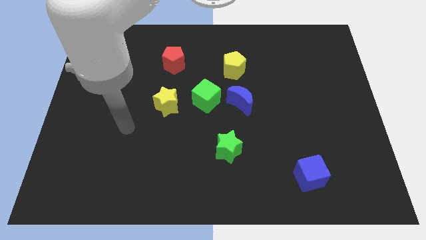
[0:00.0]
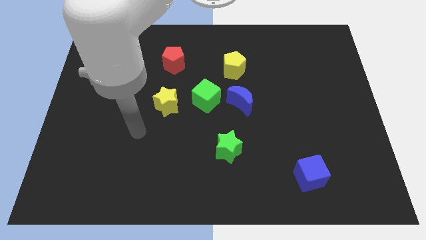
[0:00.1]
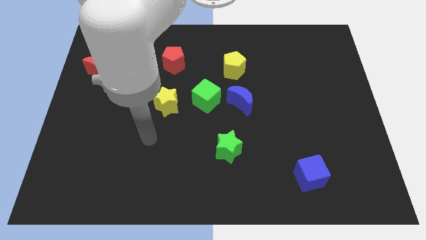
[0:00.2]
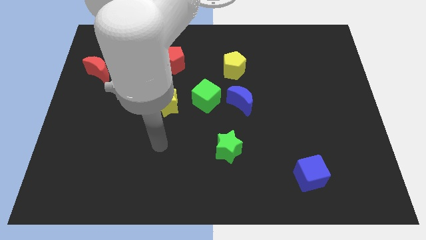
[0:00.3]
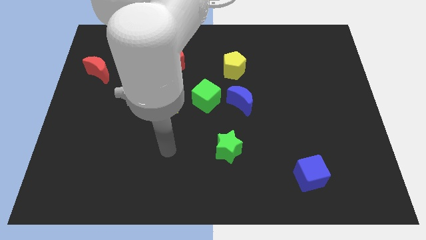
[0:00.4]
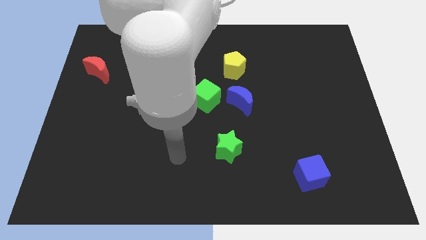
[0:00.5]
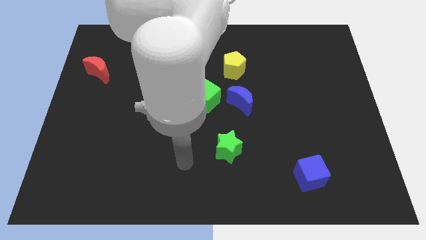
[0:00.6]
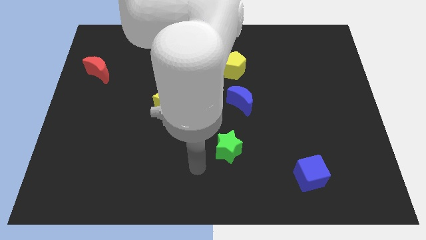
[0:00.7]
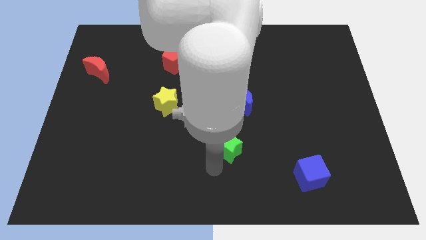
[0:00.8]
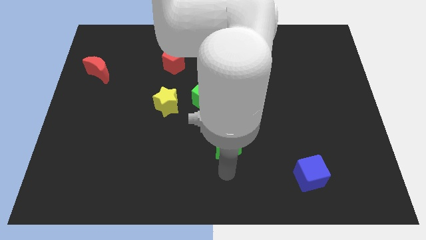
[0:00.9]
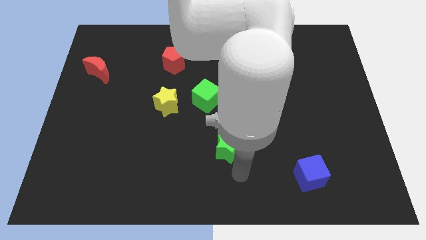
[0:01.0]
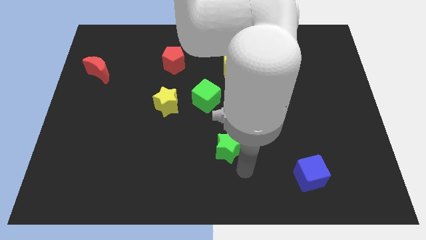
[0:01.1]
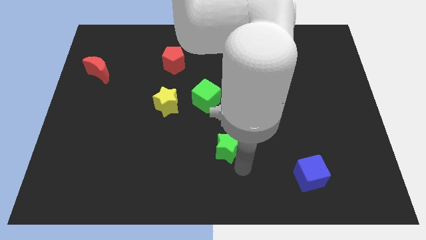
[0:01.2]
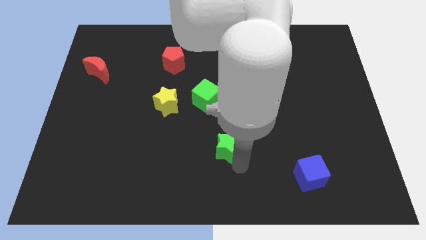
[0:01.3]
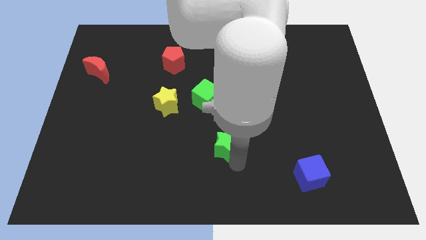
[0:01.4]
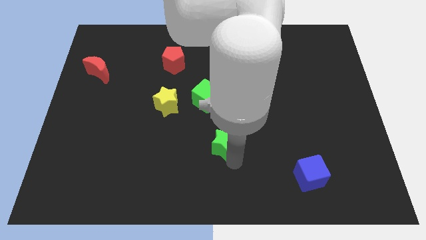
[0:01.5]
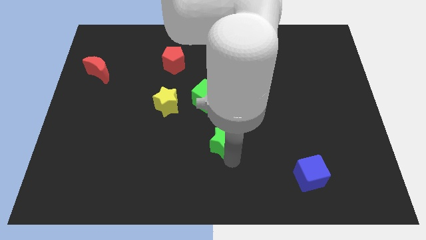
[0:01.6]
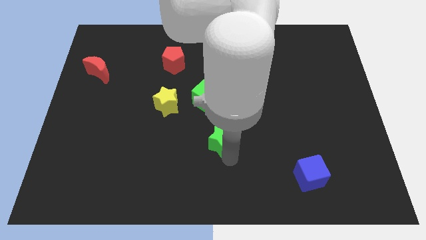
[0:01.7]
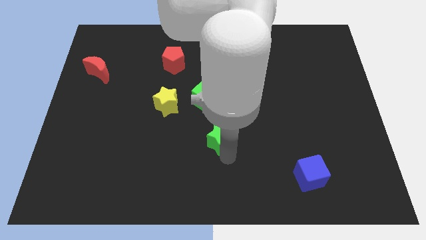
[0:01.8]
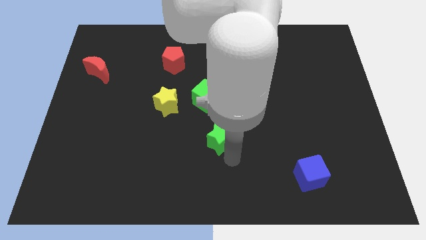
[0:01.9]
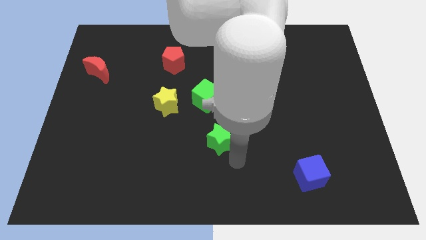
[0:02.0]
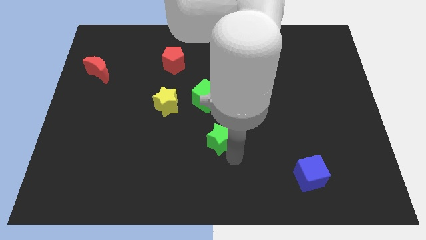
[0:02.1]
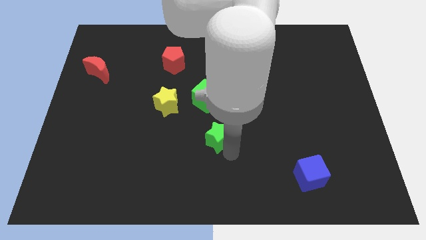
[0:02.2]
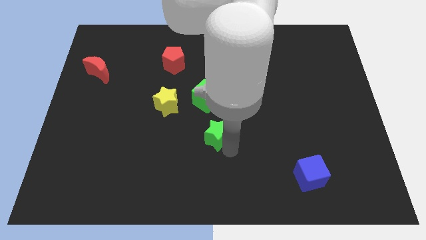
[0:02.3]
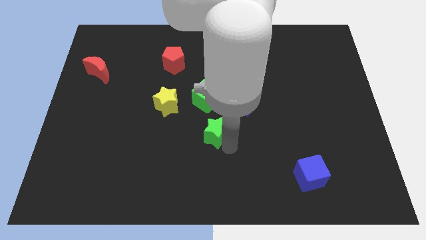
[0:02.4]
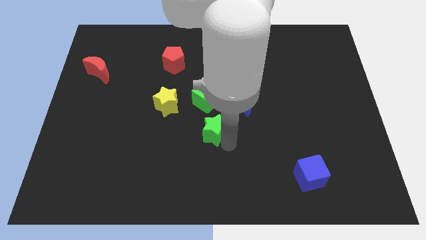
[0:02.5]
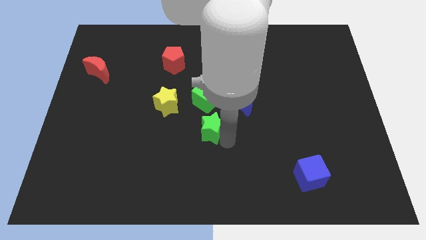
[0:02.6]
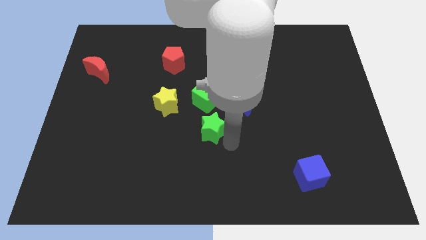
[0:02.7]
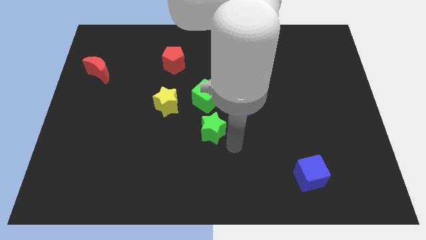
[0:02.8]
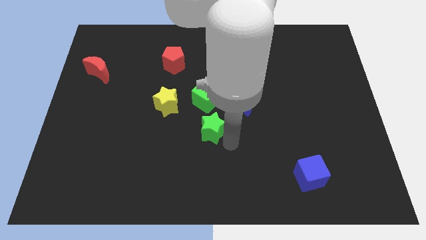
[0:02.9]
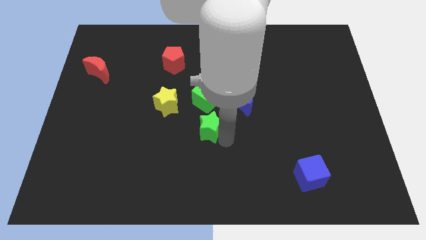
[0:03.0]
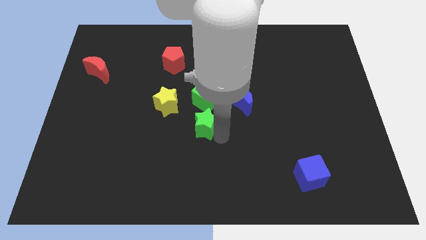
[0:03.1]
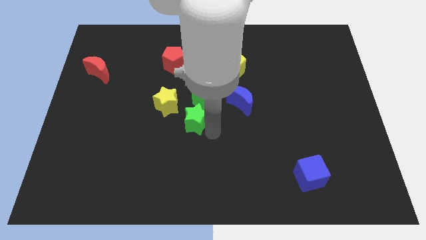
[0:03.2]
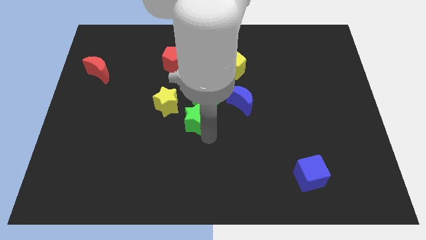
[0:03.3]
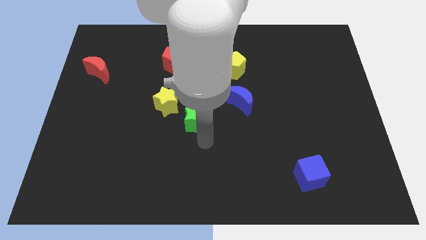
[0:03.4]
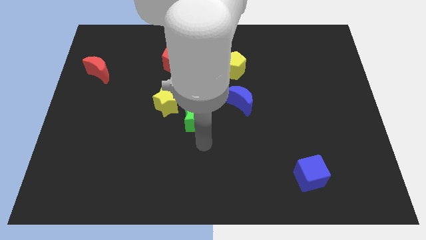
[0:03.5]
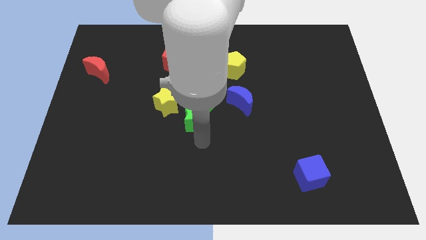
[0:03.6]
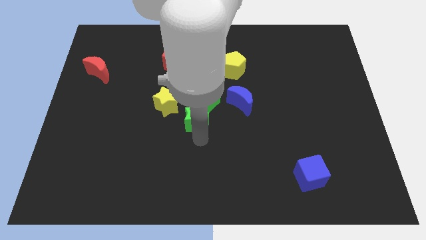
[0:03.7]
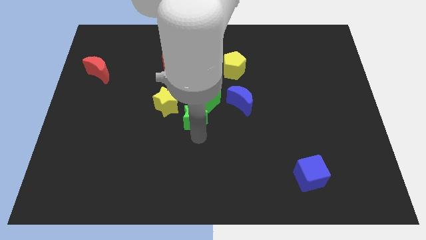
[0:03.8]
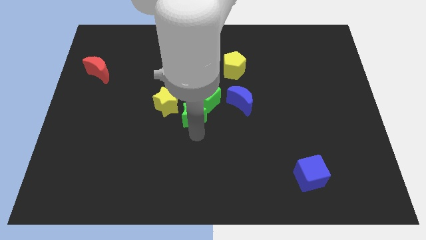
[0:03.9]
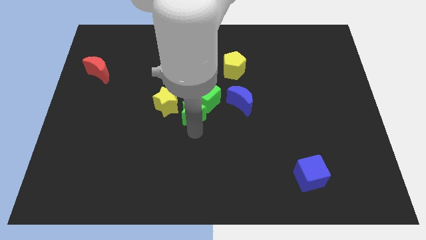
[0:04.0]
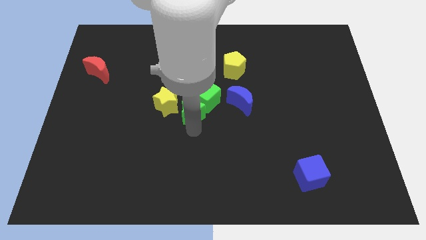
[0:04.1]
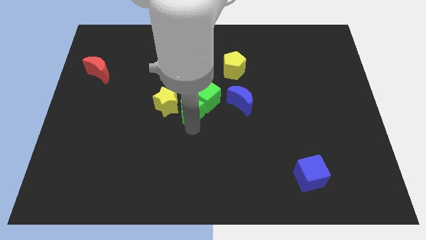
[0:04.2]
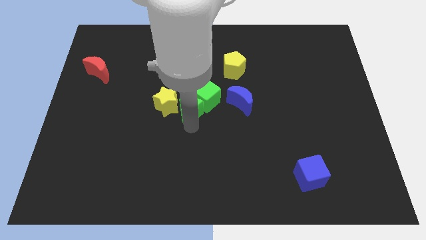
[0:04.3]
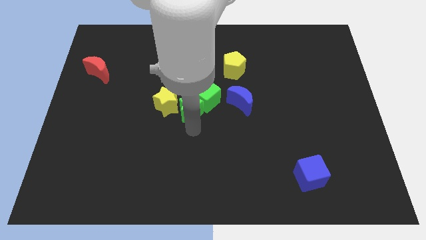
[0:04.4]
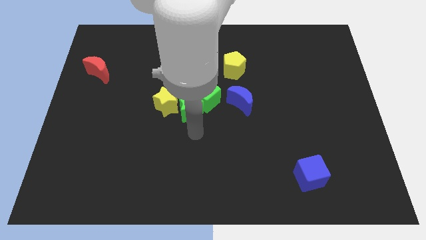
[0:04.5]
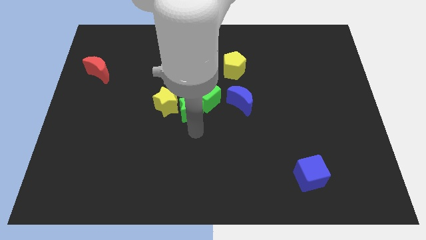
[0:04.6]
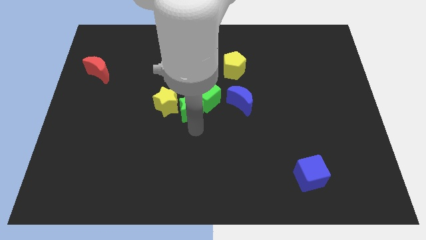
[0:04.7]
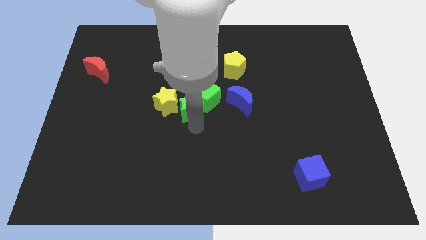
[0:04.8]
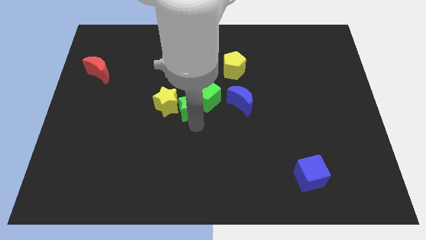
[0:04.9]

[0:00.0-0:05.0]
move the green star diagonally up and to the right of the yellow star

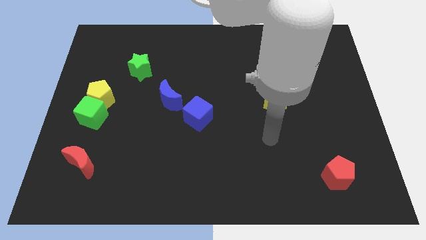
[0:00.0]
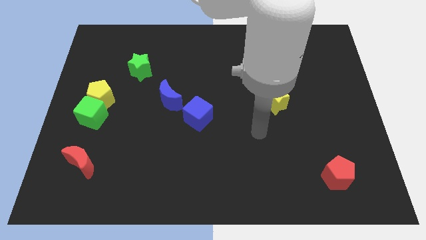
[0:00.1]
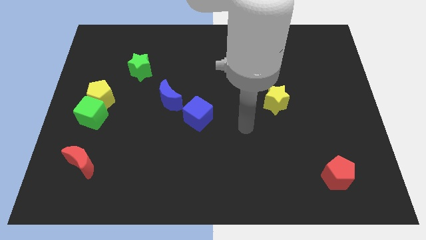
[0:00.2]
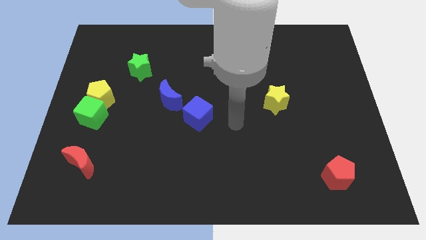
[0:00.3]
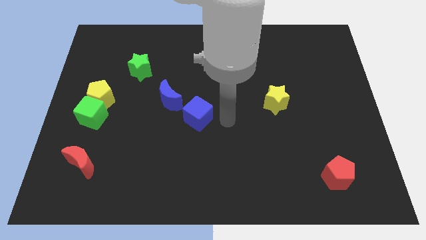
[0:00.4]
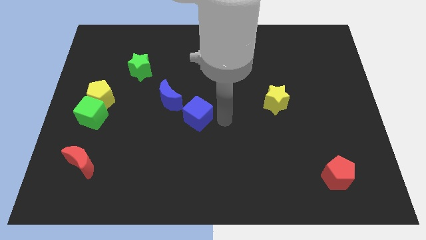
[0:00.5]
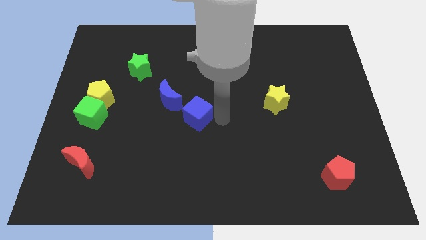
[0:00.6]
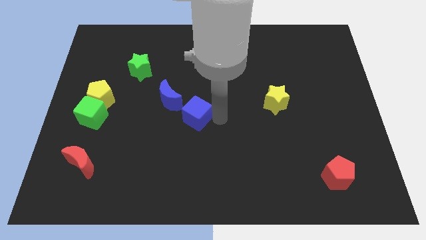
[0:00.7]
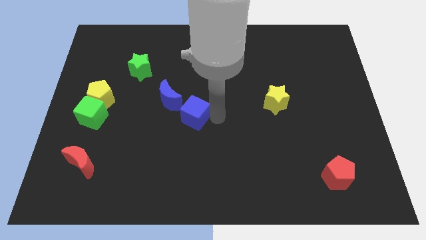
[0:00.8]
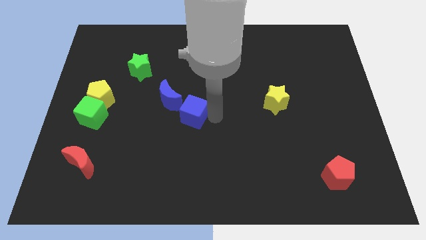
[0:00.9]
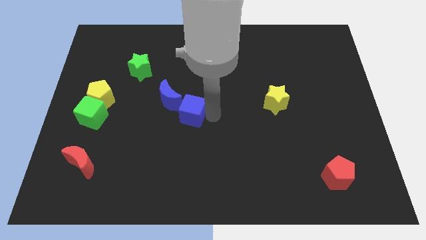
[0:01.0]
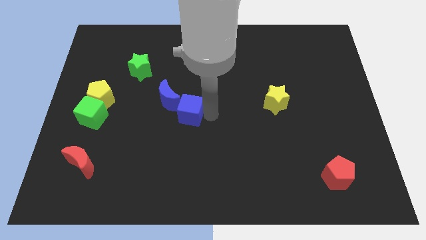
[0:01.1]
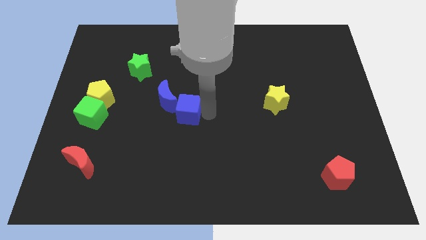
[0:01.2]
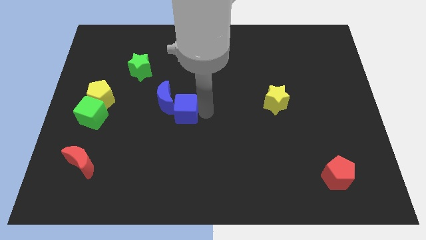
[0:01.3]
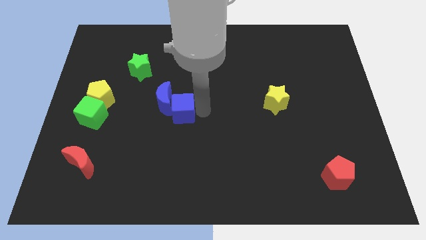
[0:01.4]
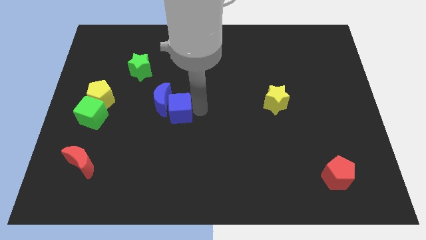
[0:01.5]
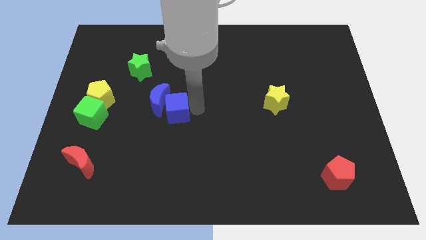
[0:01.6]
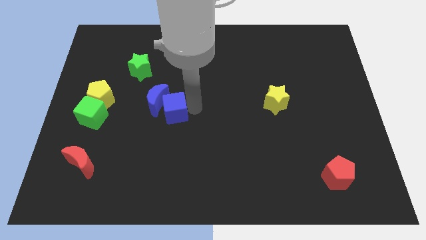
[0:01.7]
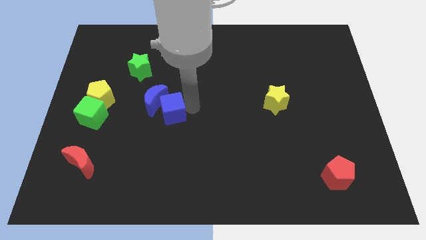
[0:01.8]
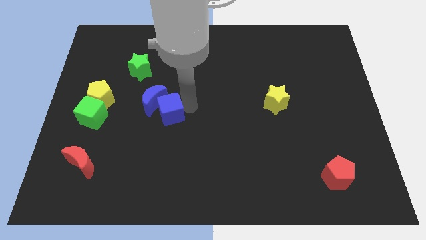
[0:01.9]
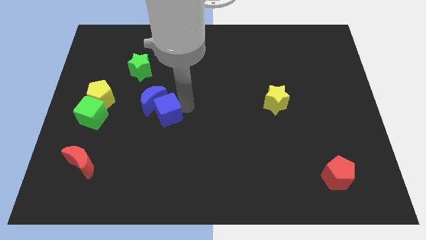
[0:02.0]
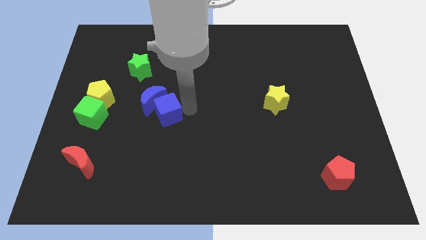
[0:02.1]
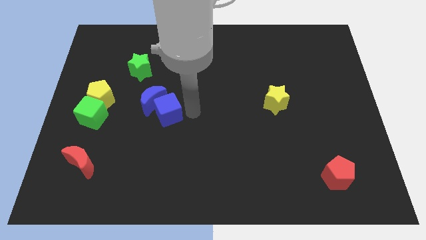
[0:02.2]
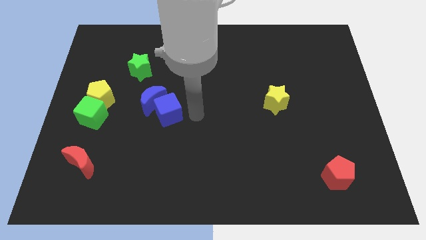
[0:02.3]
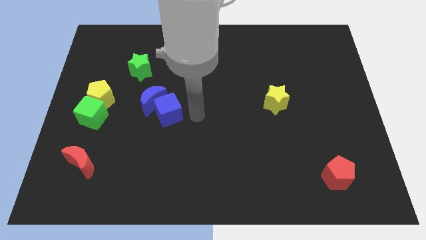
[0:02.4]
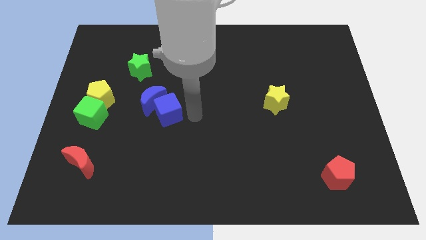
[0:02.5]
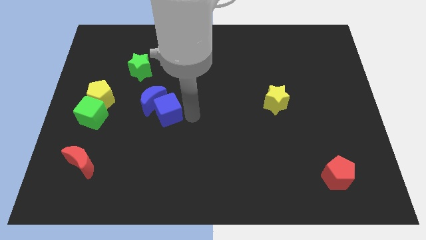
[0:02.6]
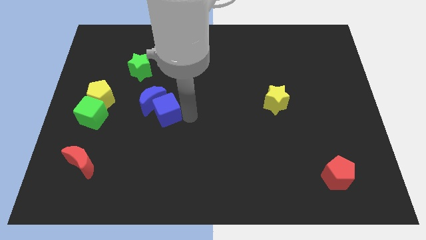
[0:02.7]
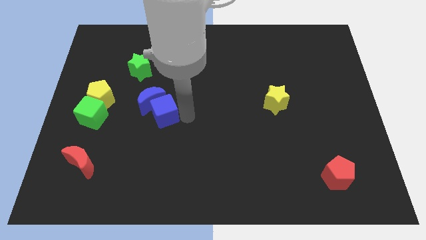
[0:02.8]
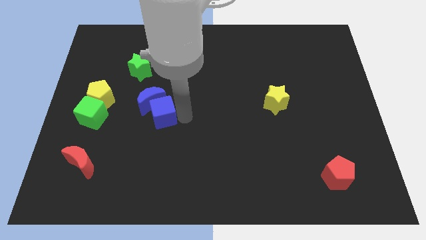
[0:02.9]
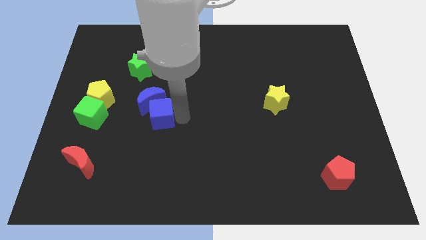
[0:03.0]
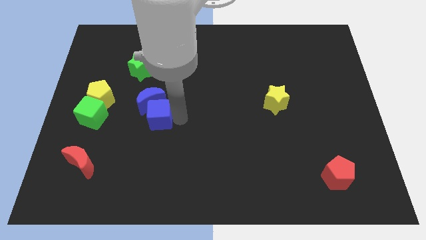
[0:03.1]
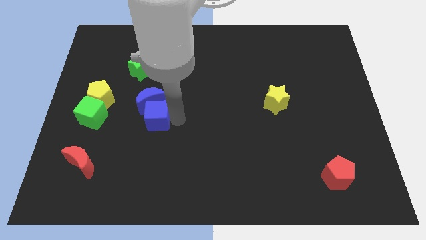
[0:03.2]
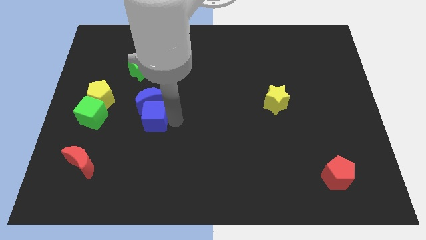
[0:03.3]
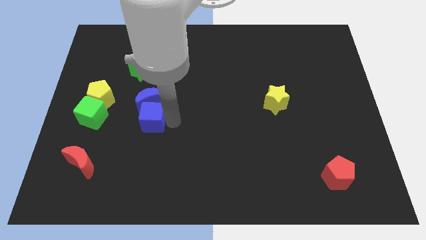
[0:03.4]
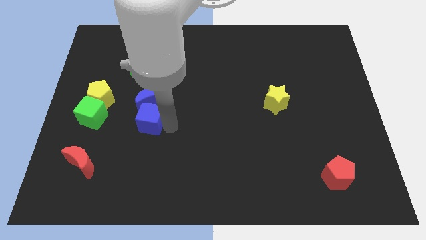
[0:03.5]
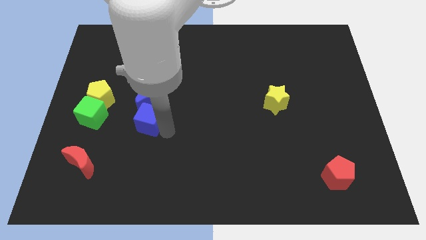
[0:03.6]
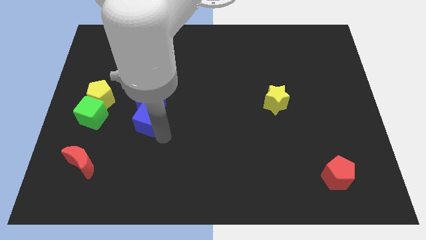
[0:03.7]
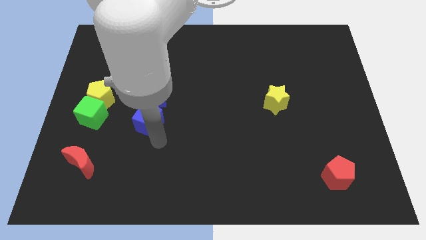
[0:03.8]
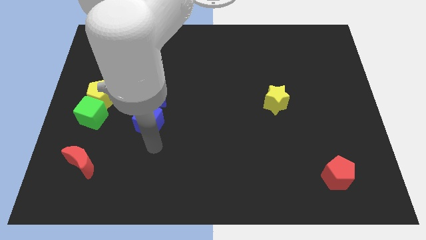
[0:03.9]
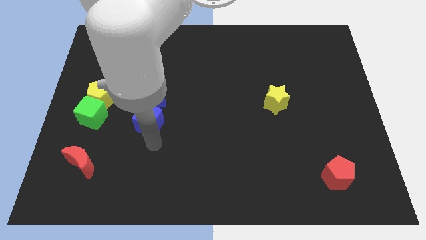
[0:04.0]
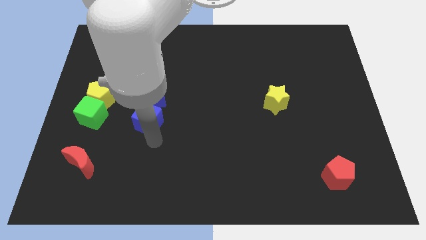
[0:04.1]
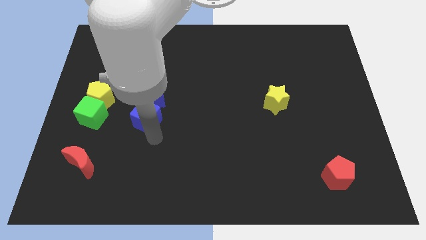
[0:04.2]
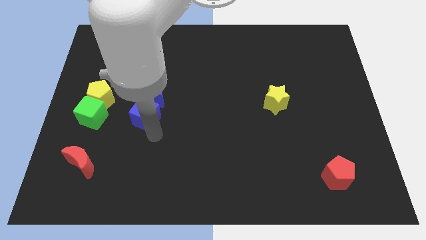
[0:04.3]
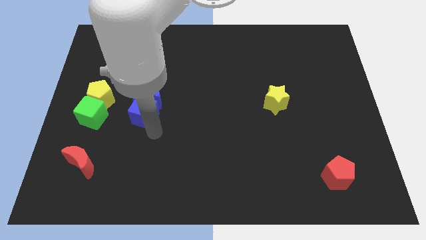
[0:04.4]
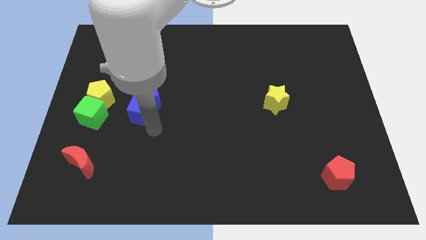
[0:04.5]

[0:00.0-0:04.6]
slide the blue cube to the right side of the yellow pentagon
